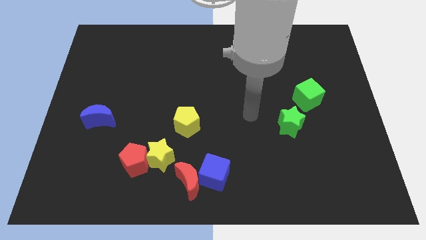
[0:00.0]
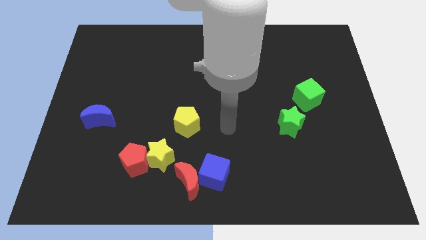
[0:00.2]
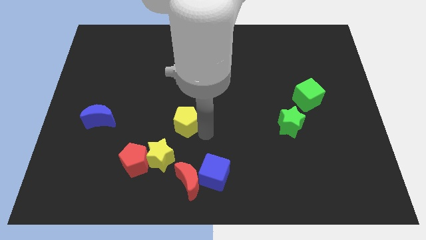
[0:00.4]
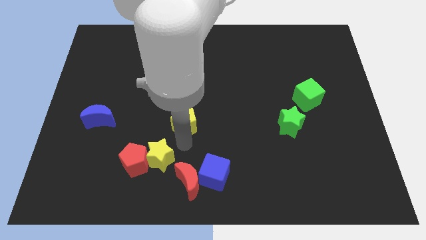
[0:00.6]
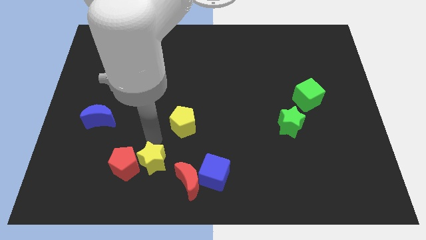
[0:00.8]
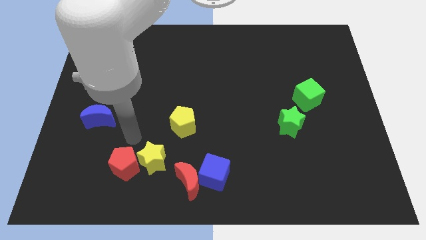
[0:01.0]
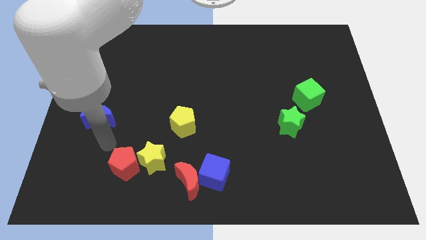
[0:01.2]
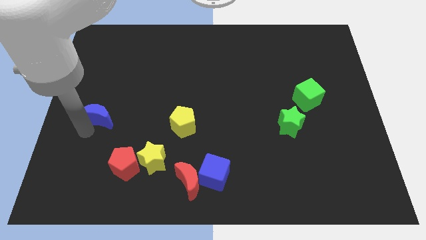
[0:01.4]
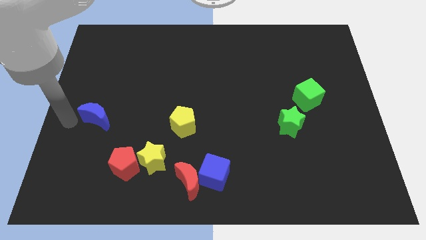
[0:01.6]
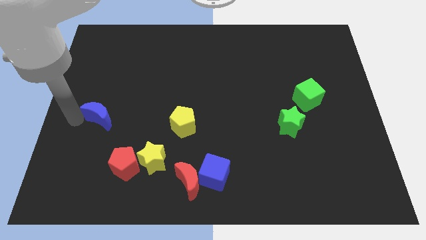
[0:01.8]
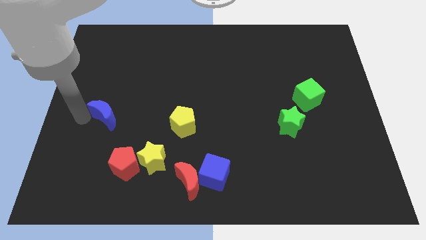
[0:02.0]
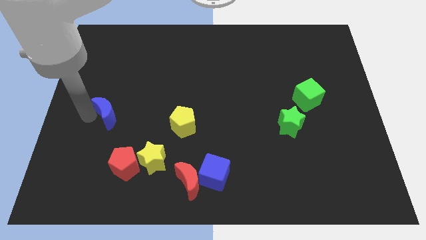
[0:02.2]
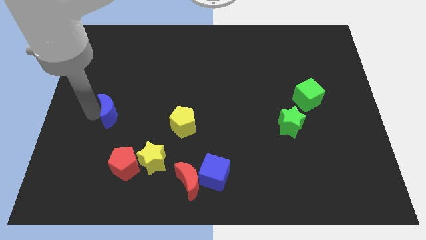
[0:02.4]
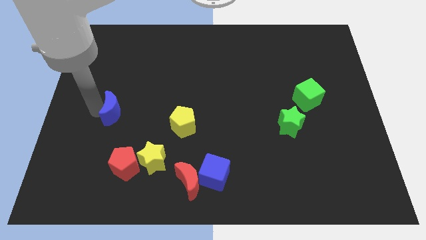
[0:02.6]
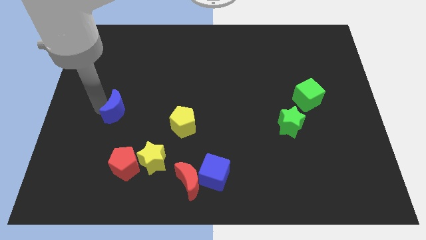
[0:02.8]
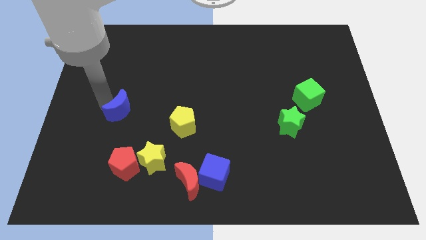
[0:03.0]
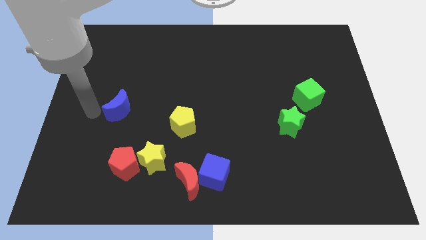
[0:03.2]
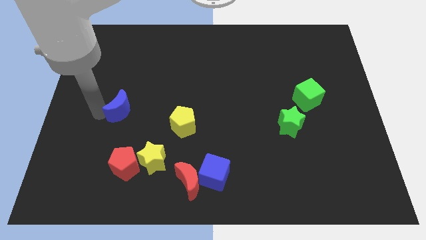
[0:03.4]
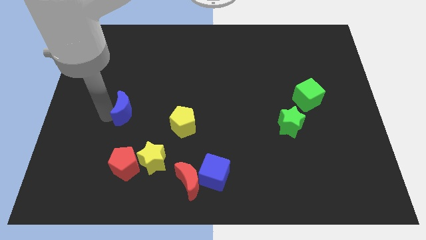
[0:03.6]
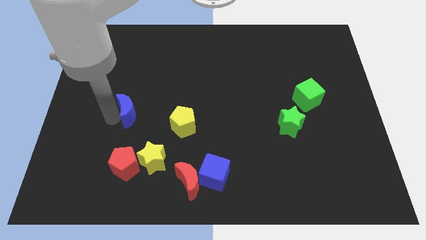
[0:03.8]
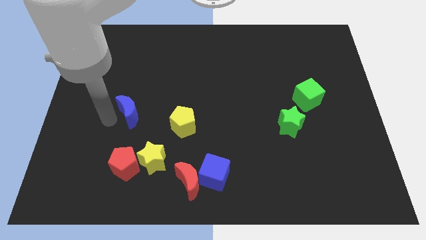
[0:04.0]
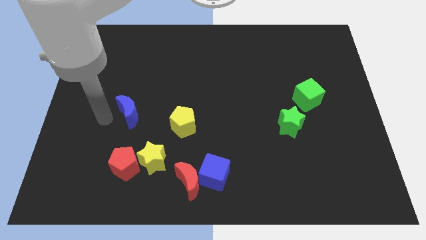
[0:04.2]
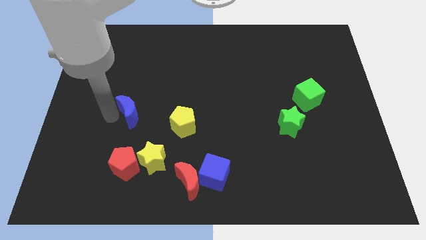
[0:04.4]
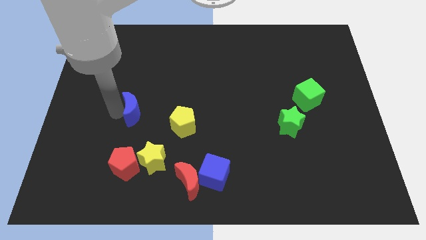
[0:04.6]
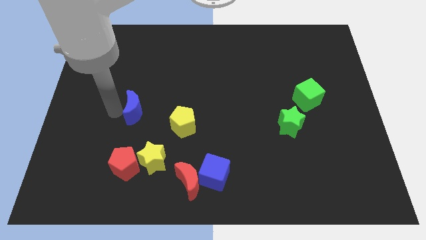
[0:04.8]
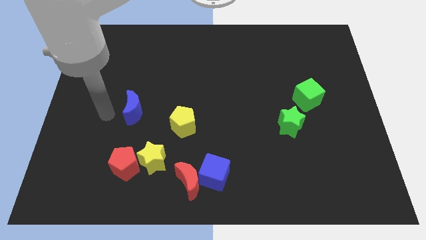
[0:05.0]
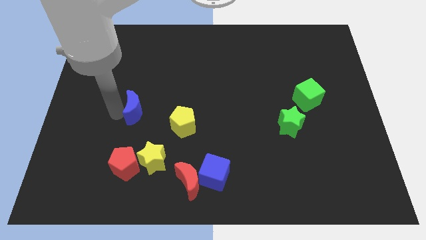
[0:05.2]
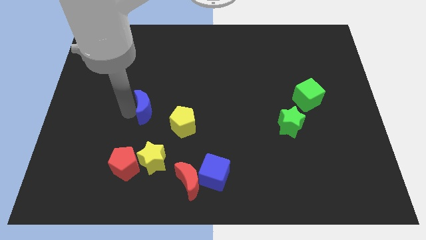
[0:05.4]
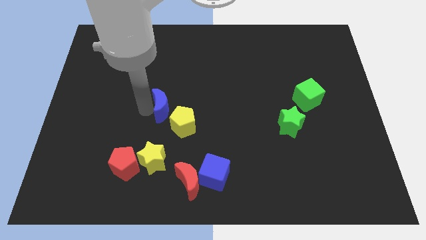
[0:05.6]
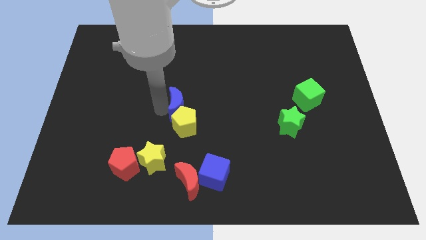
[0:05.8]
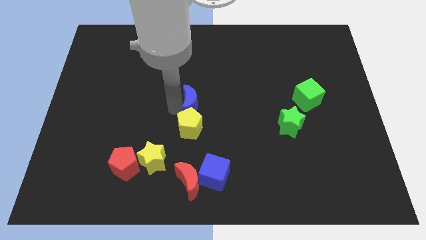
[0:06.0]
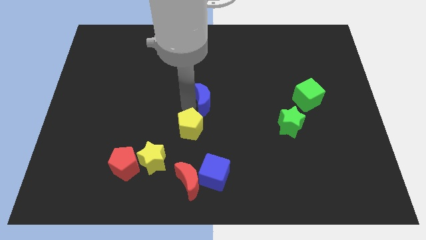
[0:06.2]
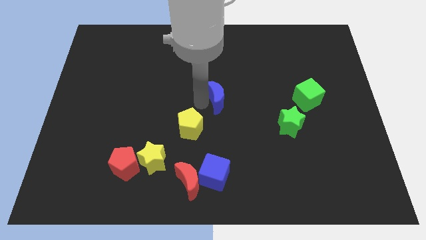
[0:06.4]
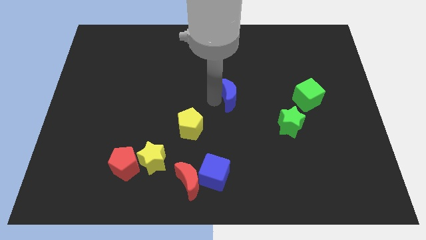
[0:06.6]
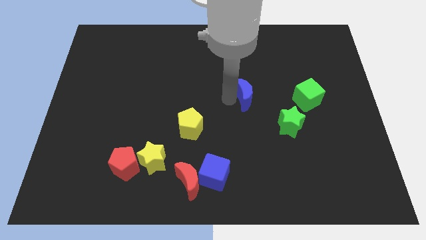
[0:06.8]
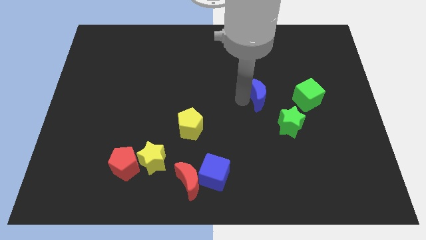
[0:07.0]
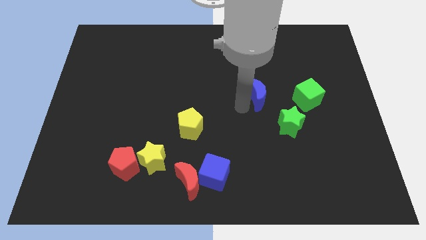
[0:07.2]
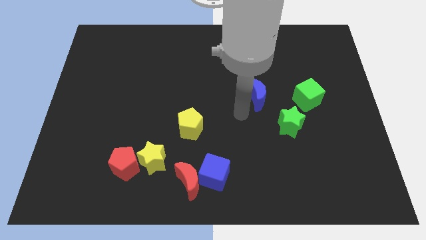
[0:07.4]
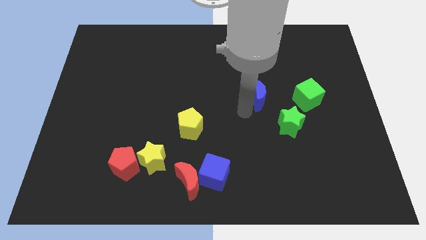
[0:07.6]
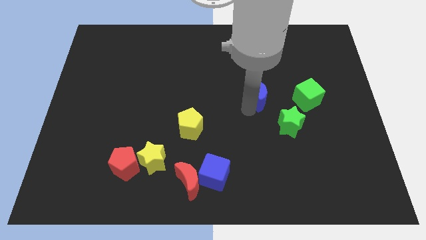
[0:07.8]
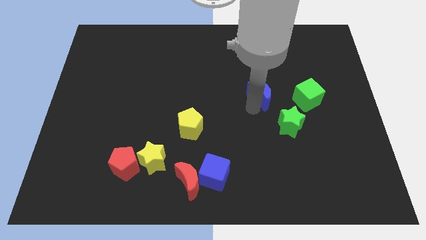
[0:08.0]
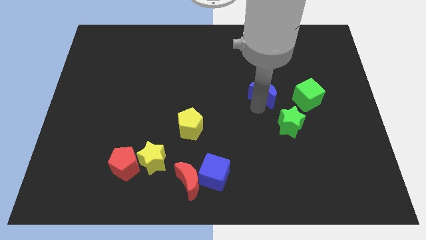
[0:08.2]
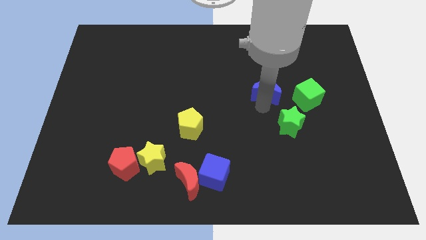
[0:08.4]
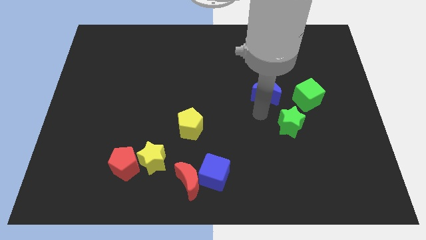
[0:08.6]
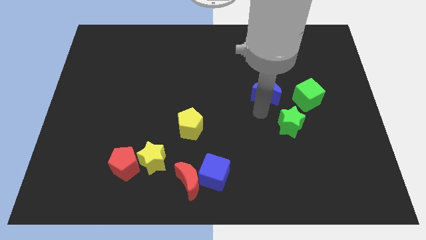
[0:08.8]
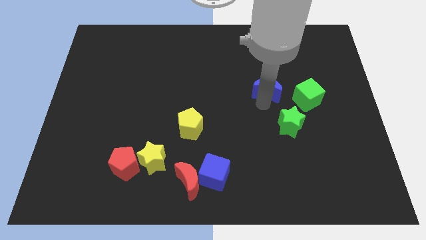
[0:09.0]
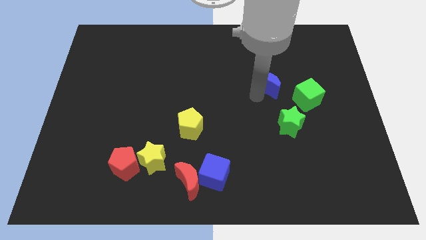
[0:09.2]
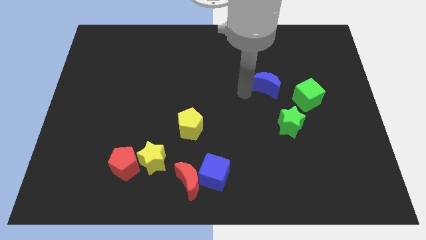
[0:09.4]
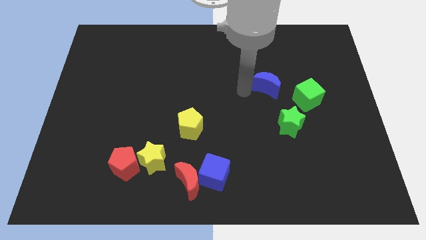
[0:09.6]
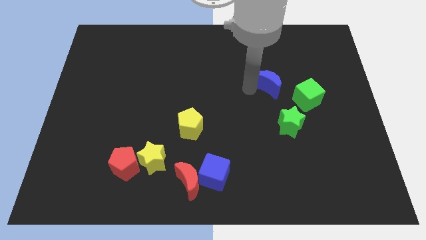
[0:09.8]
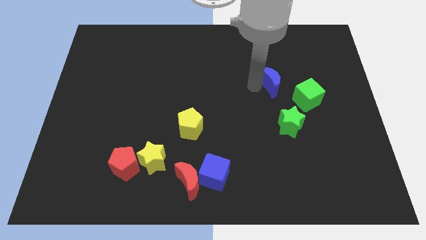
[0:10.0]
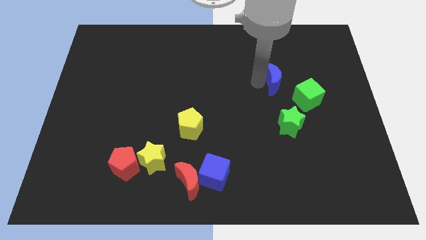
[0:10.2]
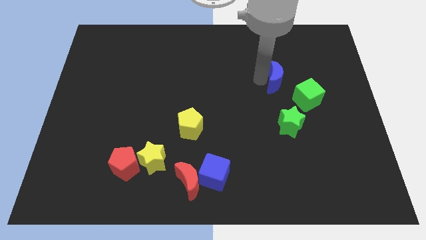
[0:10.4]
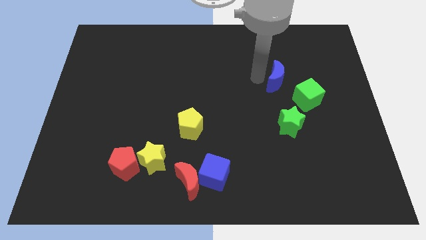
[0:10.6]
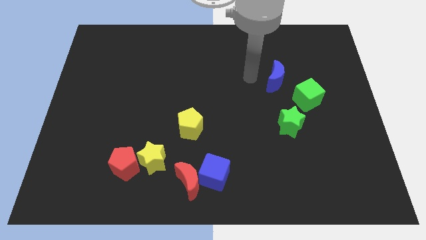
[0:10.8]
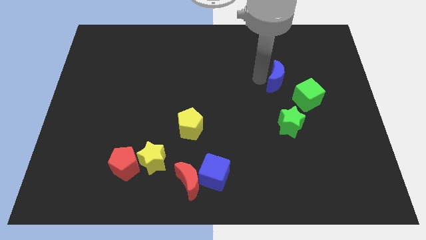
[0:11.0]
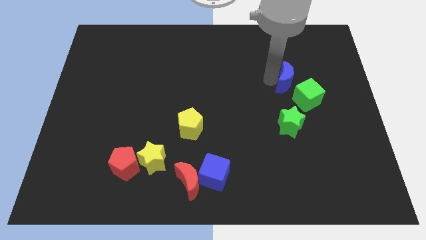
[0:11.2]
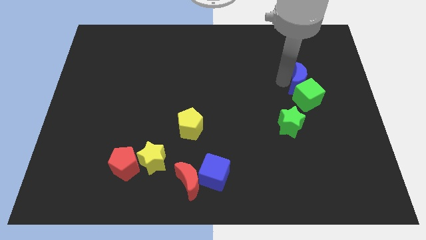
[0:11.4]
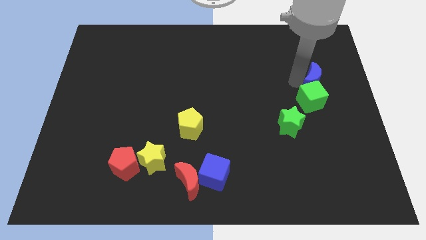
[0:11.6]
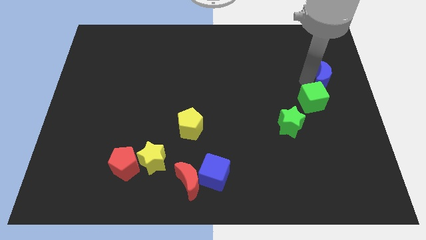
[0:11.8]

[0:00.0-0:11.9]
put the blue moon to the right side

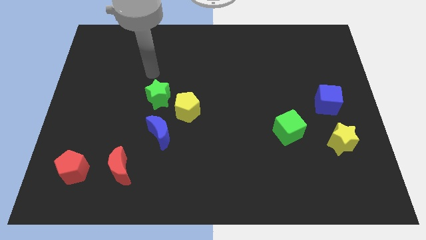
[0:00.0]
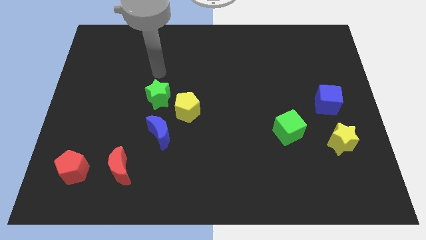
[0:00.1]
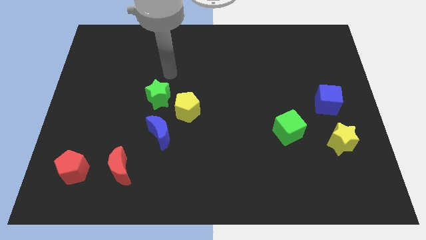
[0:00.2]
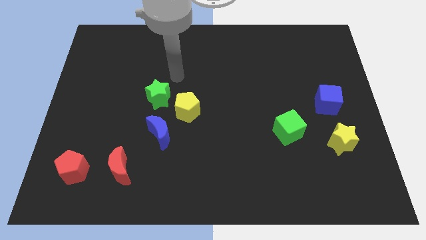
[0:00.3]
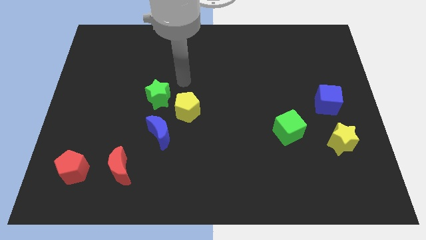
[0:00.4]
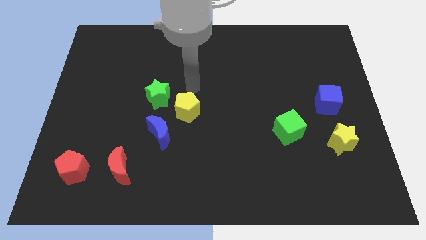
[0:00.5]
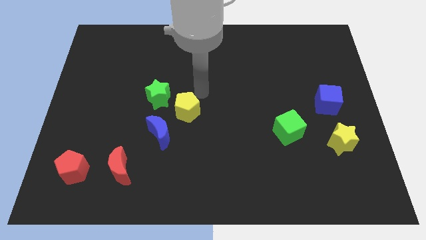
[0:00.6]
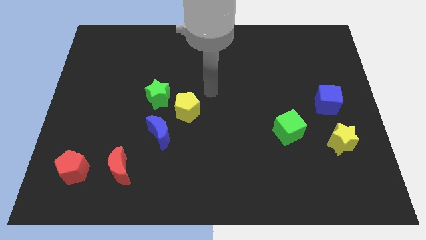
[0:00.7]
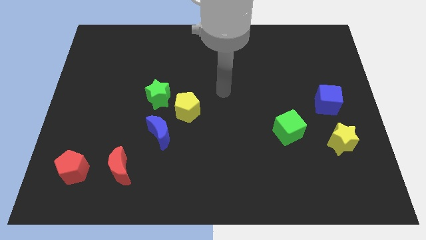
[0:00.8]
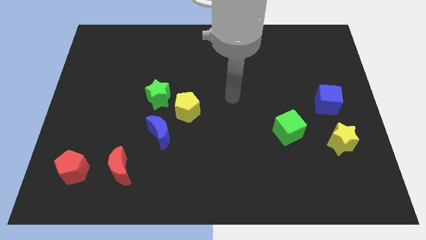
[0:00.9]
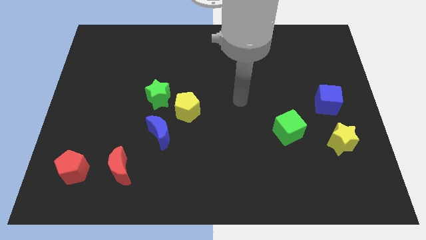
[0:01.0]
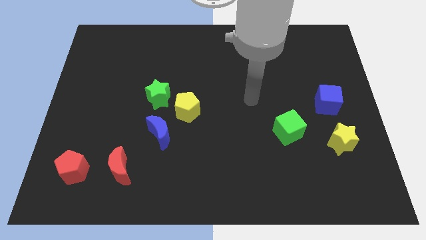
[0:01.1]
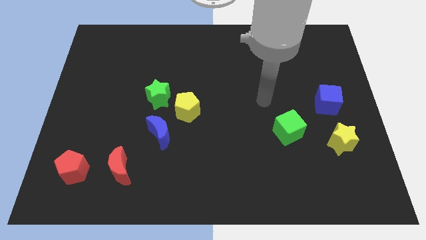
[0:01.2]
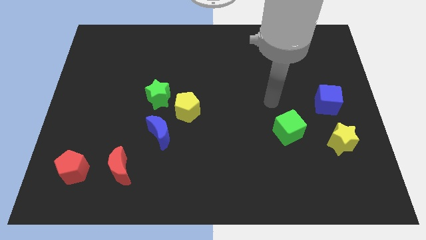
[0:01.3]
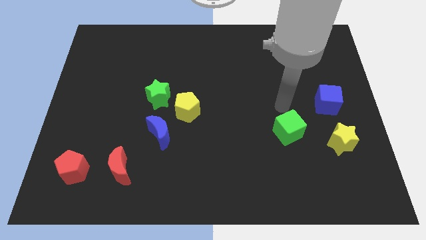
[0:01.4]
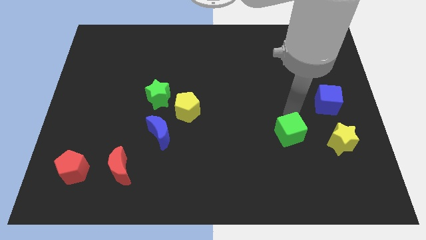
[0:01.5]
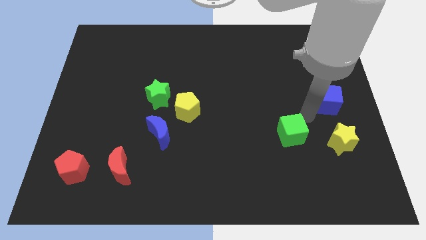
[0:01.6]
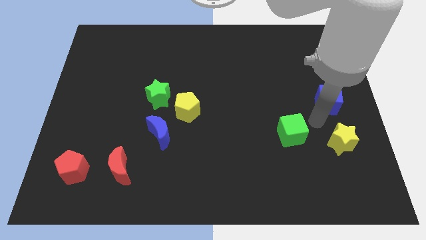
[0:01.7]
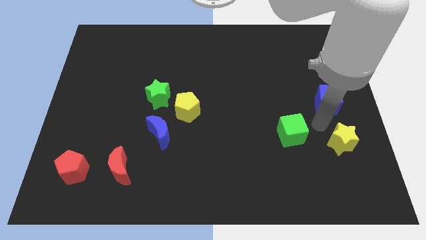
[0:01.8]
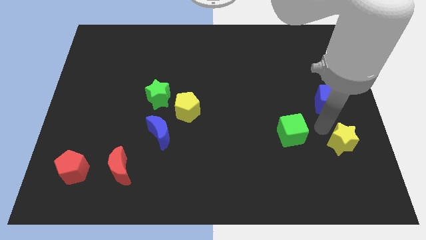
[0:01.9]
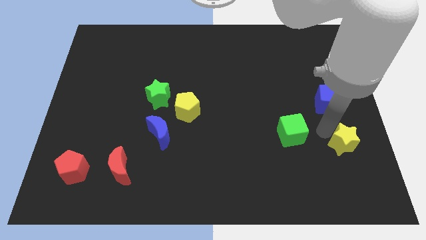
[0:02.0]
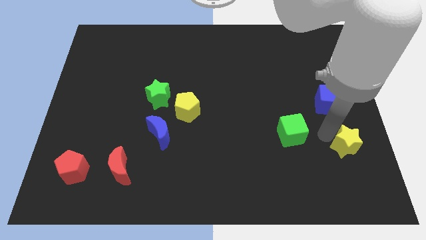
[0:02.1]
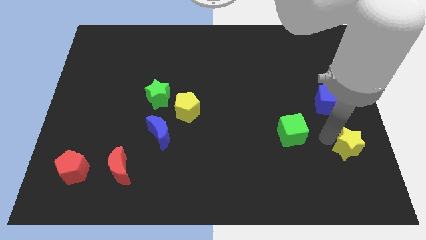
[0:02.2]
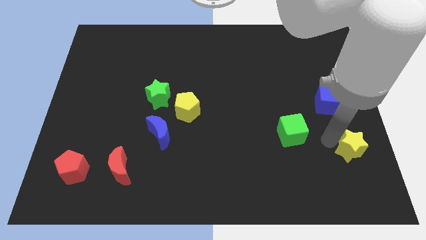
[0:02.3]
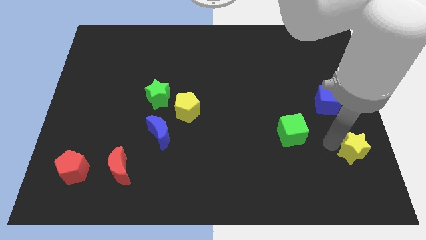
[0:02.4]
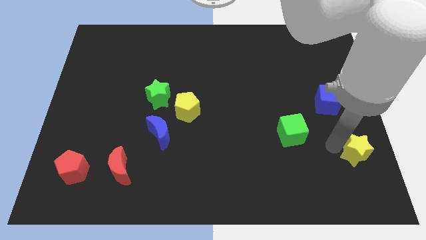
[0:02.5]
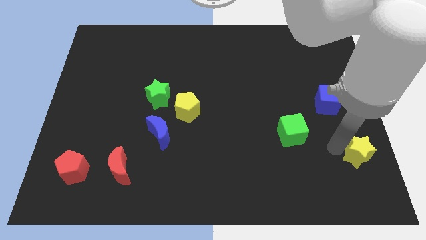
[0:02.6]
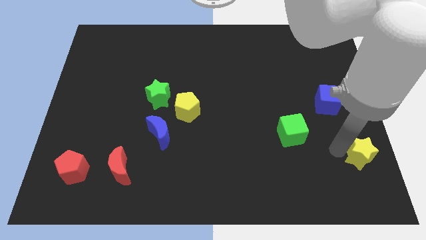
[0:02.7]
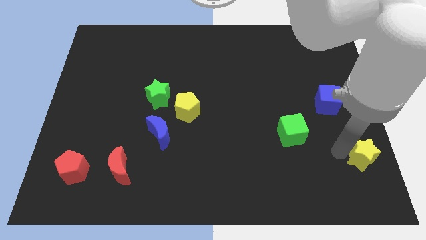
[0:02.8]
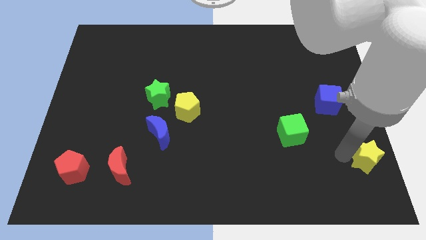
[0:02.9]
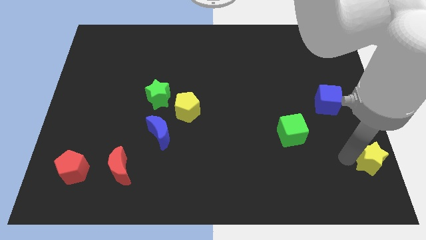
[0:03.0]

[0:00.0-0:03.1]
push the yellow star to the bottom right of the board
